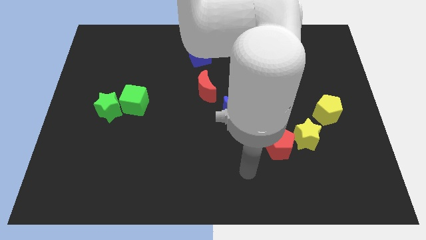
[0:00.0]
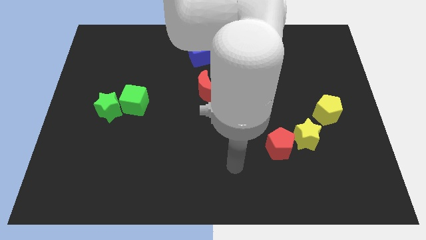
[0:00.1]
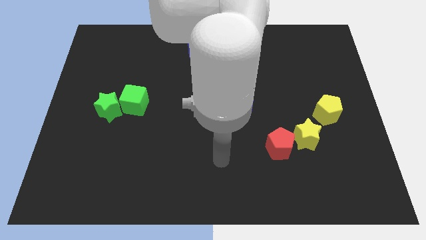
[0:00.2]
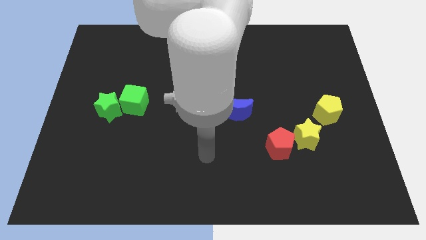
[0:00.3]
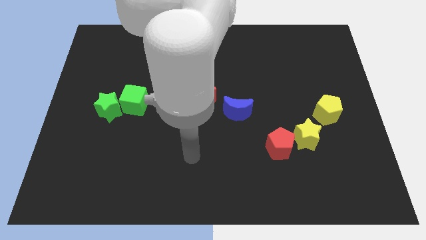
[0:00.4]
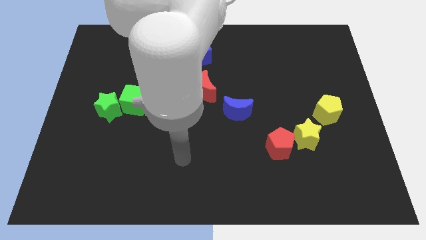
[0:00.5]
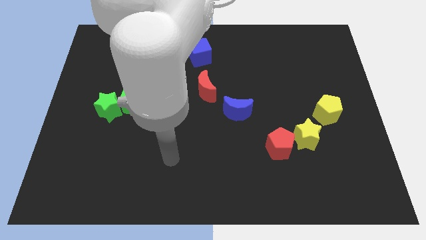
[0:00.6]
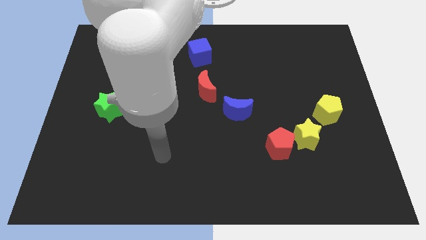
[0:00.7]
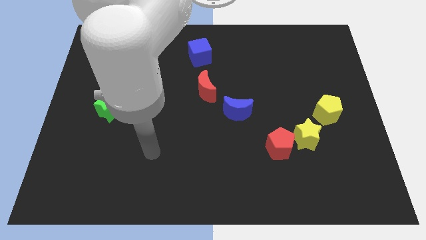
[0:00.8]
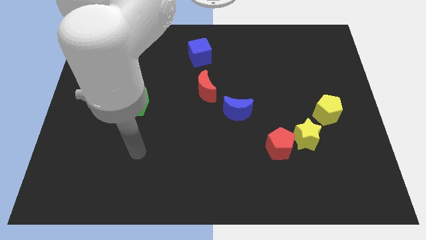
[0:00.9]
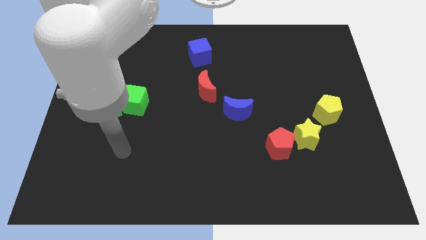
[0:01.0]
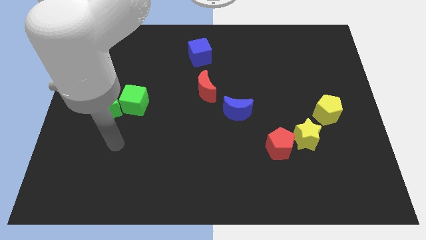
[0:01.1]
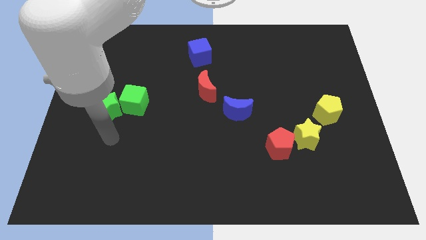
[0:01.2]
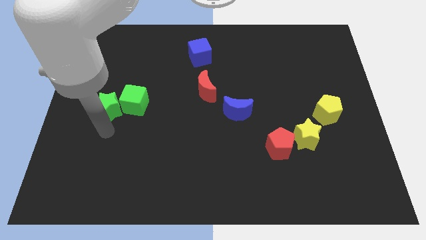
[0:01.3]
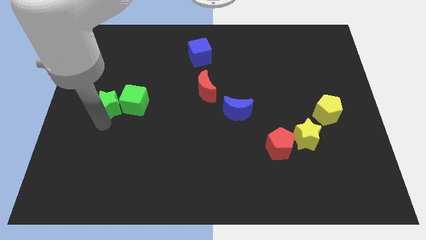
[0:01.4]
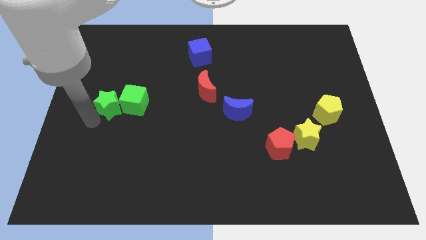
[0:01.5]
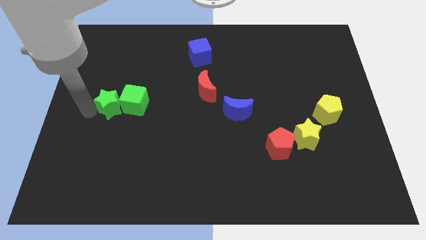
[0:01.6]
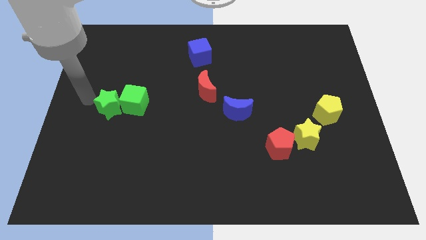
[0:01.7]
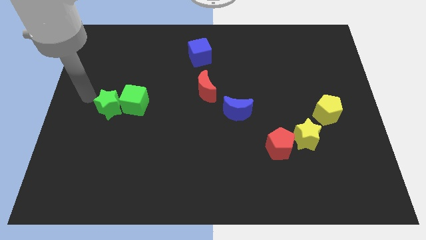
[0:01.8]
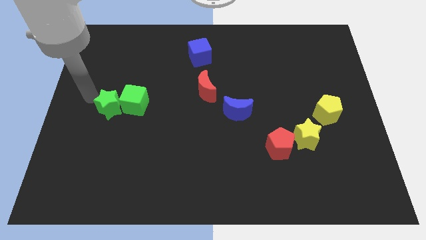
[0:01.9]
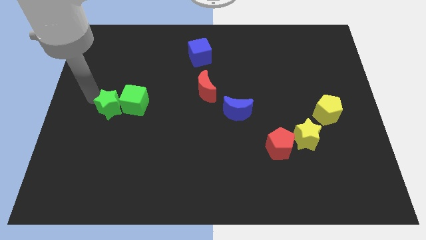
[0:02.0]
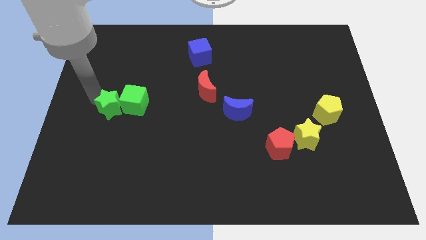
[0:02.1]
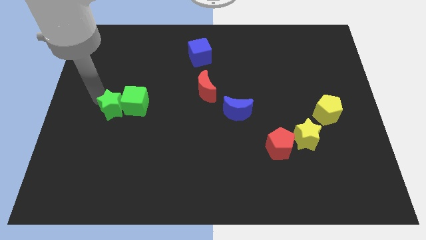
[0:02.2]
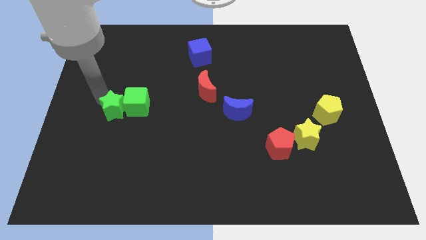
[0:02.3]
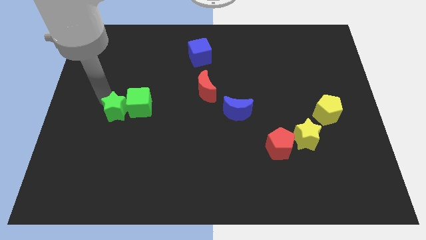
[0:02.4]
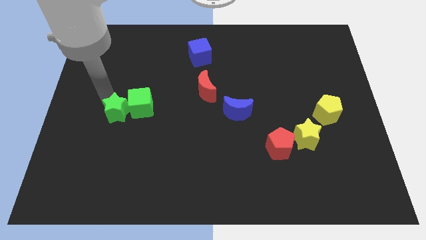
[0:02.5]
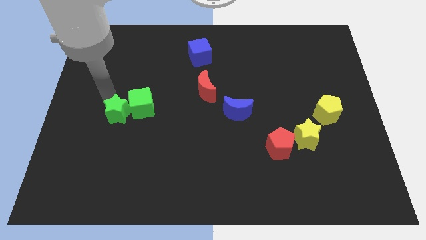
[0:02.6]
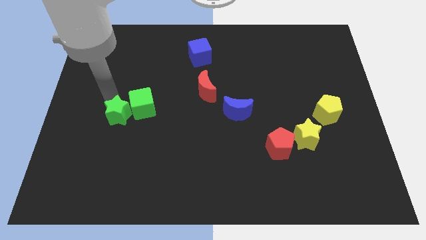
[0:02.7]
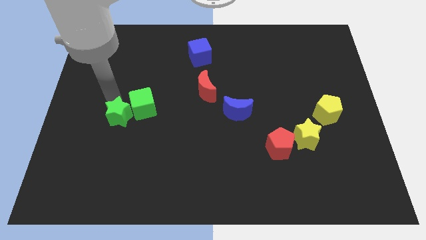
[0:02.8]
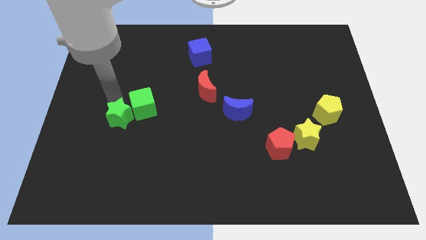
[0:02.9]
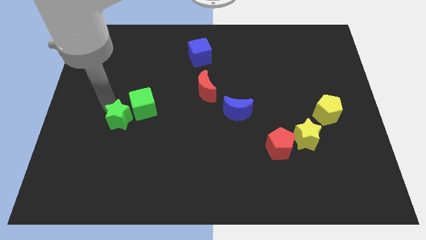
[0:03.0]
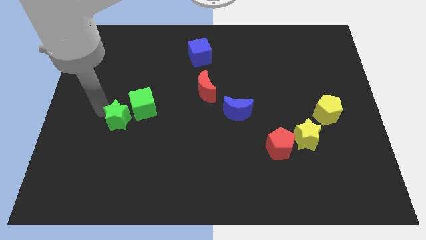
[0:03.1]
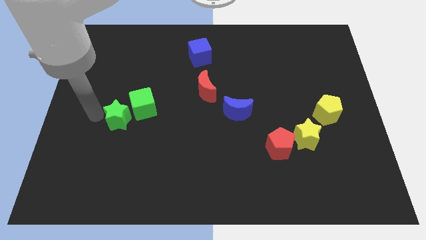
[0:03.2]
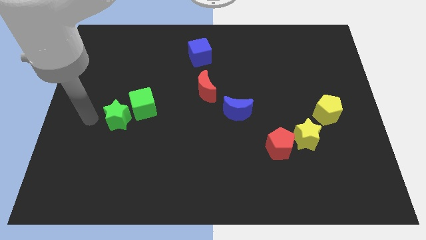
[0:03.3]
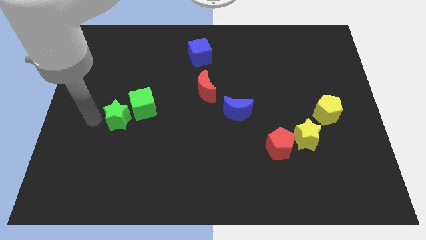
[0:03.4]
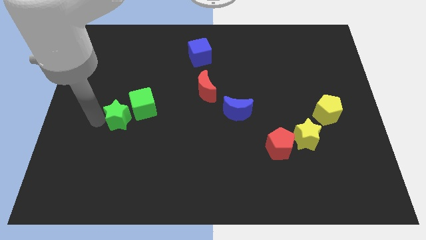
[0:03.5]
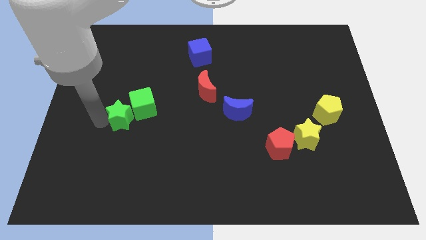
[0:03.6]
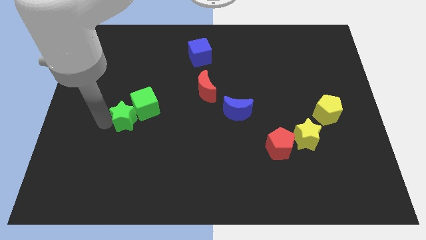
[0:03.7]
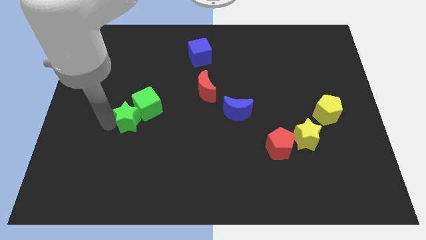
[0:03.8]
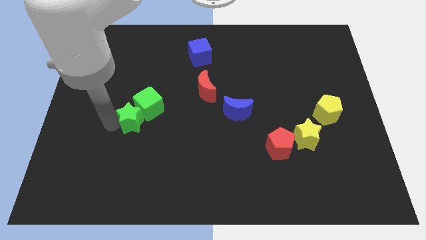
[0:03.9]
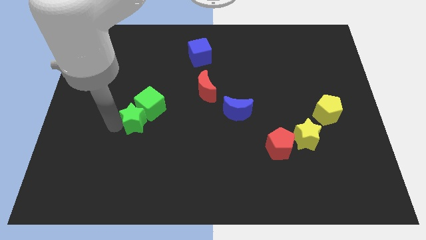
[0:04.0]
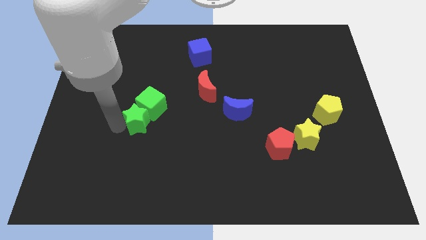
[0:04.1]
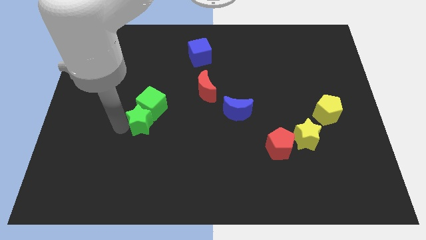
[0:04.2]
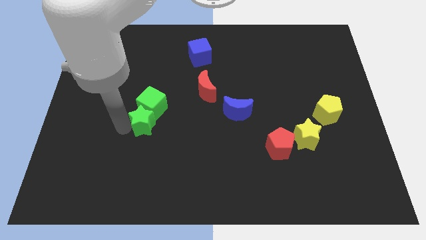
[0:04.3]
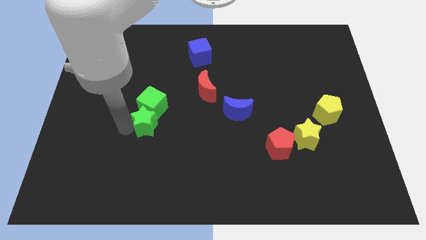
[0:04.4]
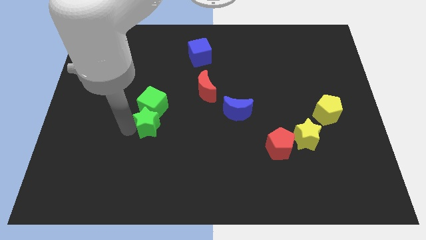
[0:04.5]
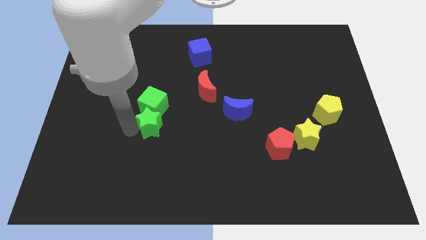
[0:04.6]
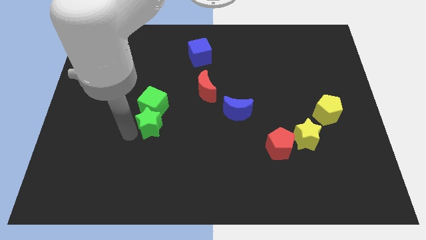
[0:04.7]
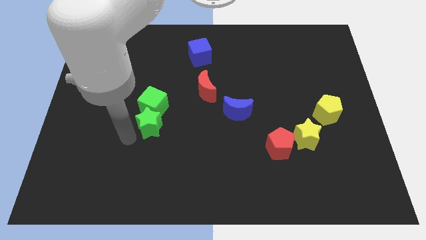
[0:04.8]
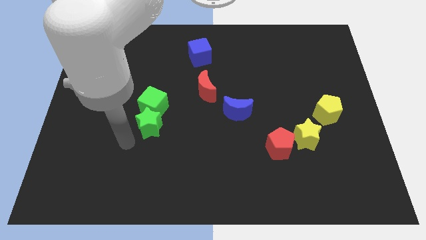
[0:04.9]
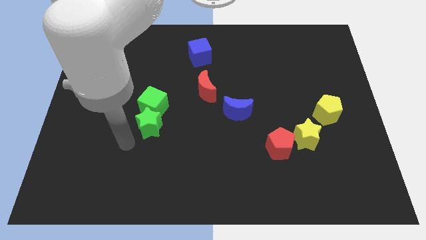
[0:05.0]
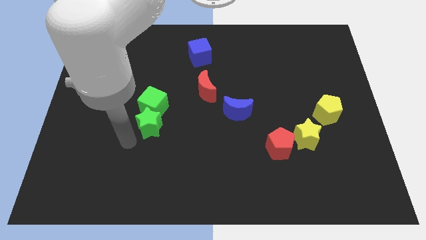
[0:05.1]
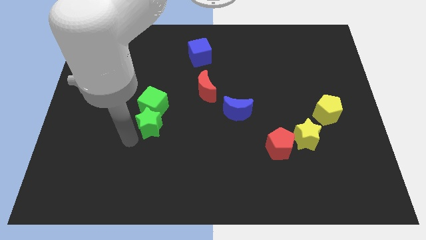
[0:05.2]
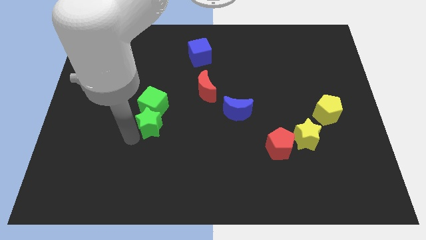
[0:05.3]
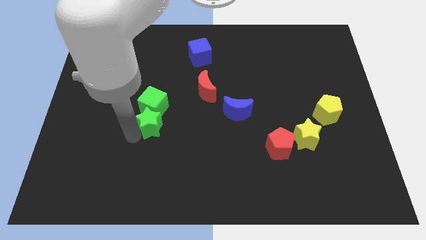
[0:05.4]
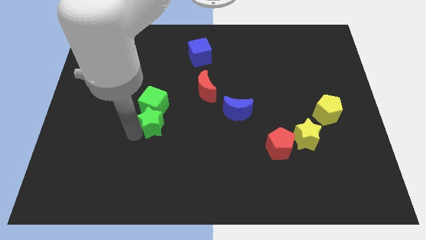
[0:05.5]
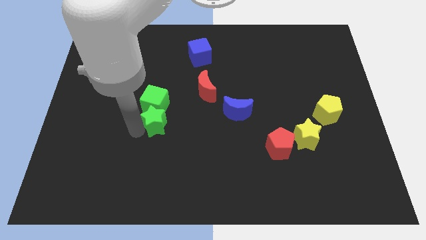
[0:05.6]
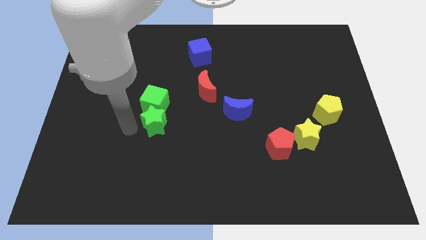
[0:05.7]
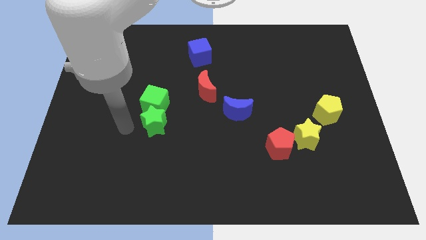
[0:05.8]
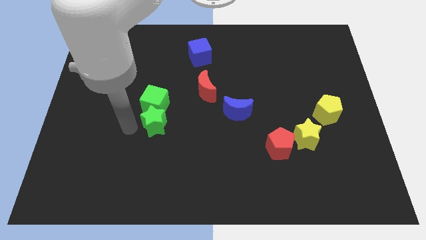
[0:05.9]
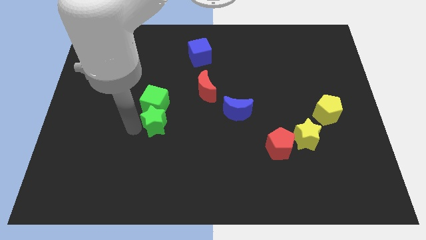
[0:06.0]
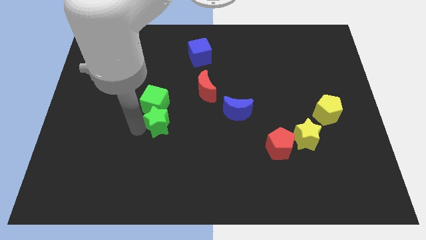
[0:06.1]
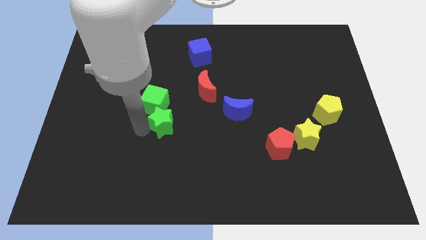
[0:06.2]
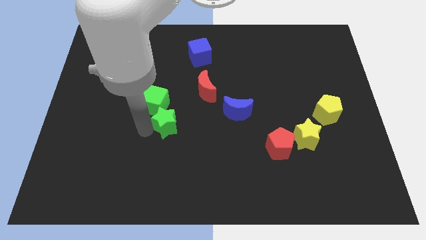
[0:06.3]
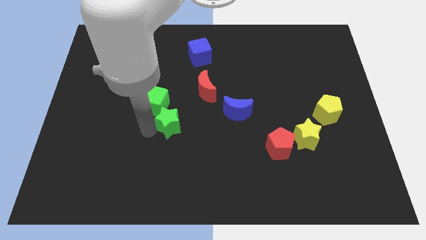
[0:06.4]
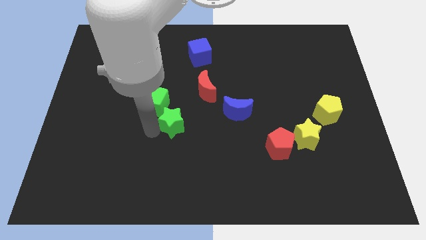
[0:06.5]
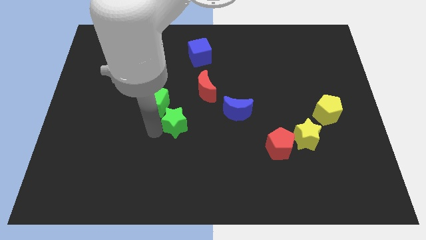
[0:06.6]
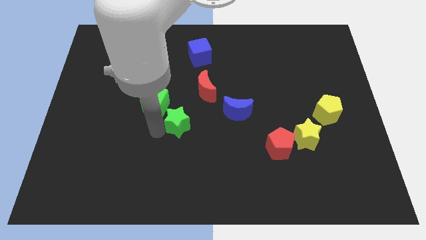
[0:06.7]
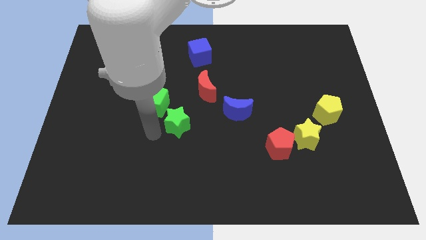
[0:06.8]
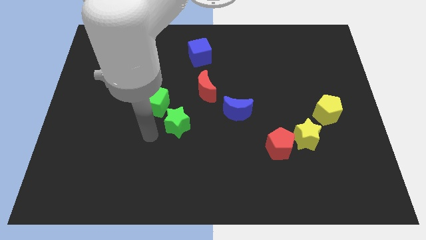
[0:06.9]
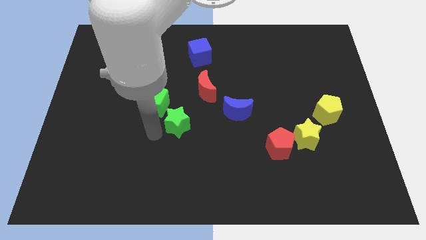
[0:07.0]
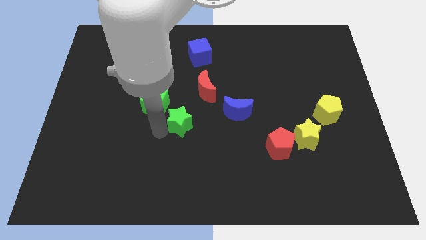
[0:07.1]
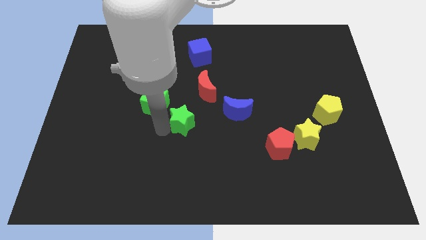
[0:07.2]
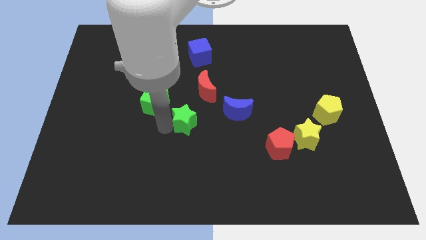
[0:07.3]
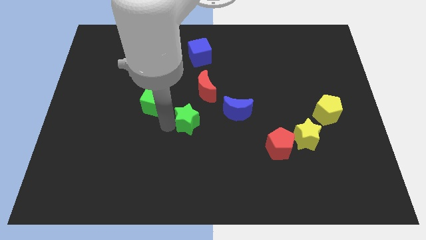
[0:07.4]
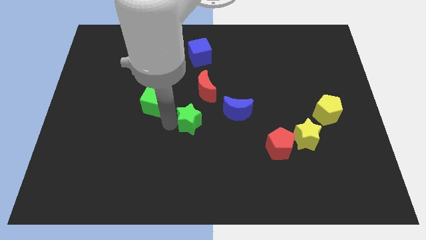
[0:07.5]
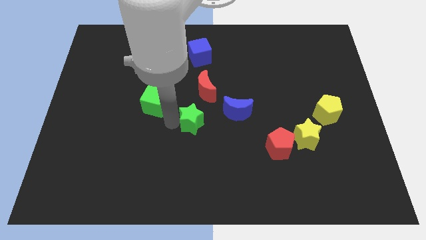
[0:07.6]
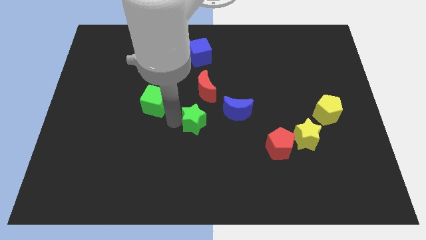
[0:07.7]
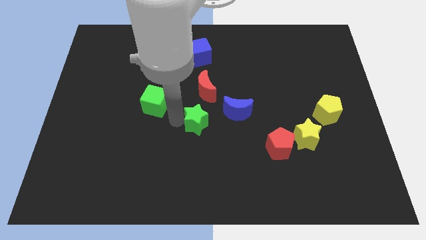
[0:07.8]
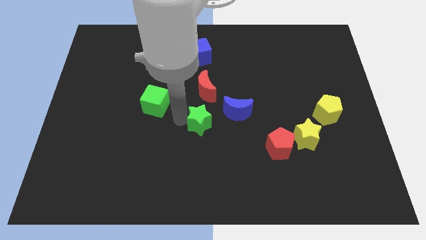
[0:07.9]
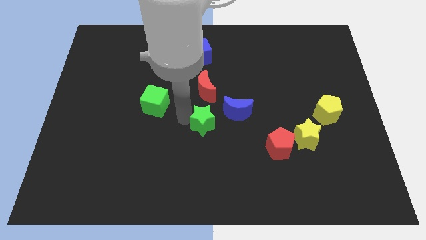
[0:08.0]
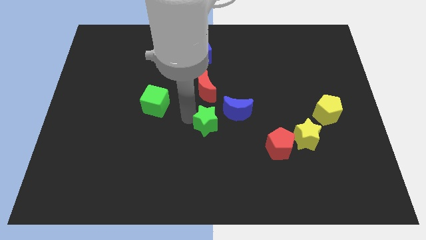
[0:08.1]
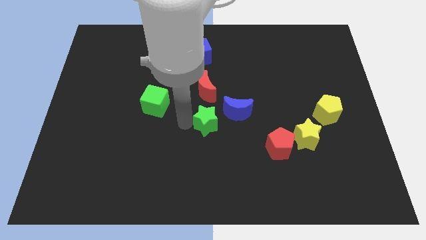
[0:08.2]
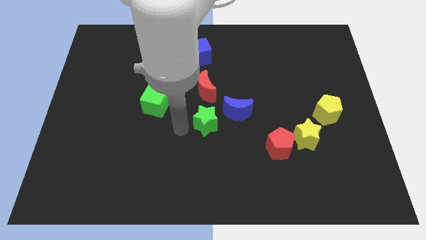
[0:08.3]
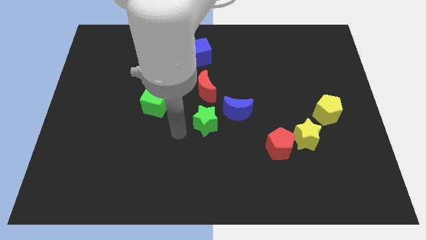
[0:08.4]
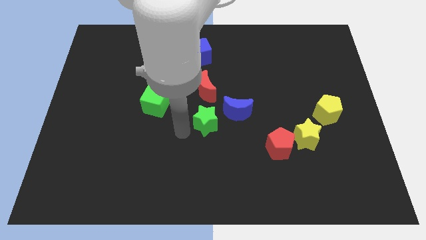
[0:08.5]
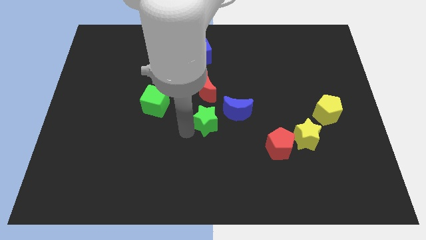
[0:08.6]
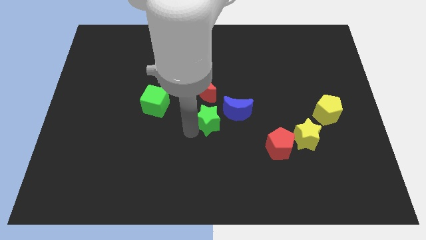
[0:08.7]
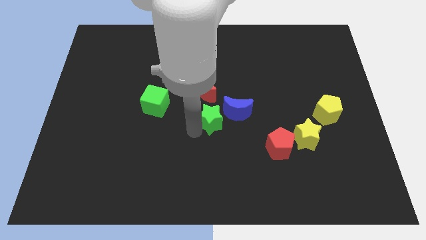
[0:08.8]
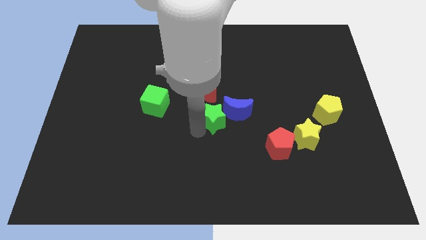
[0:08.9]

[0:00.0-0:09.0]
push the green star towards the blue moon
